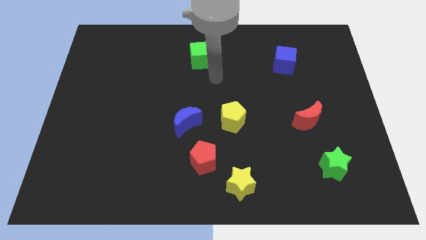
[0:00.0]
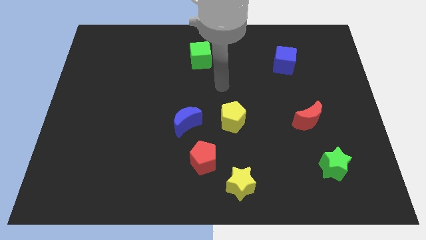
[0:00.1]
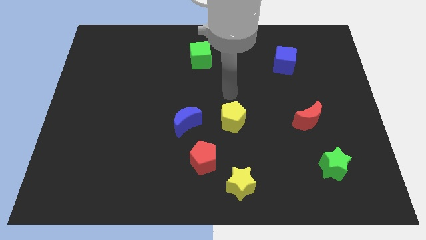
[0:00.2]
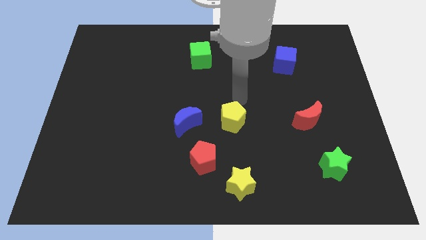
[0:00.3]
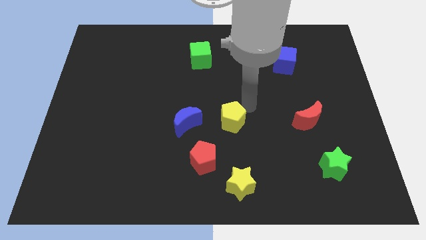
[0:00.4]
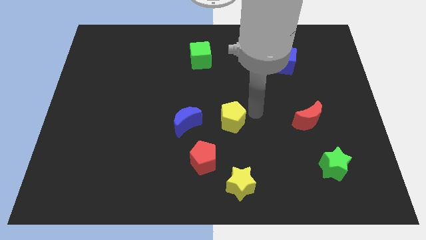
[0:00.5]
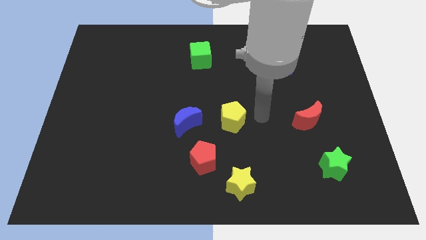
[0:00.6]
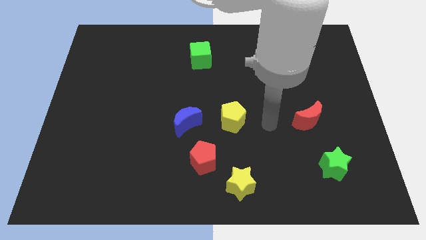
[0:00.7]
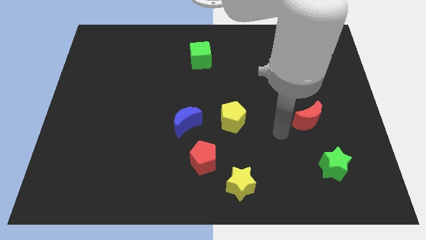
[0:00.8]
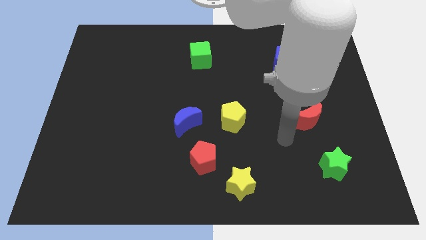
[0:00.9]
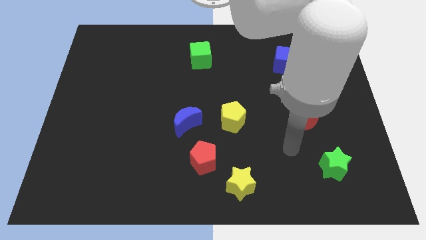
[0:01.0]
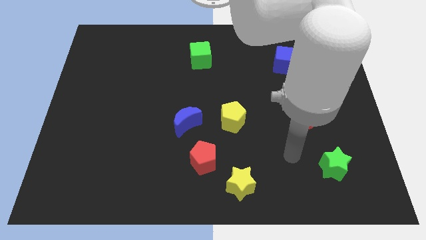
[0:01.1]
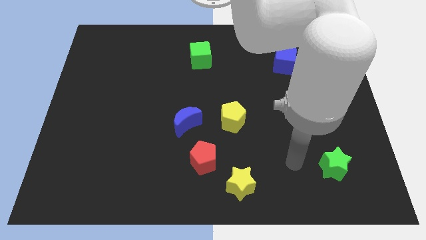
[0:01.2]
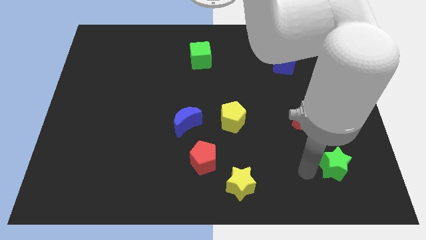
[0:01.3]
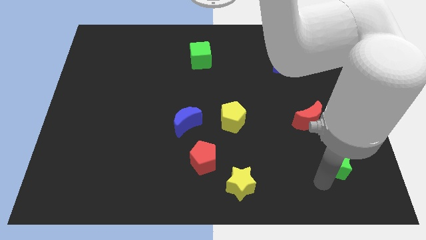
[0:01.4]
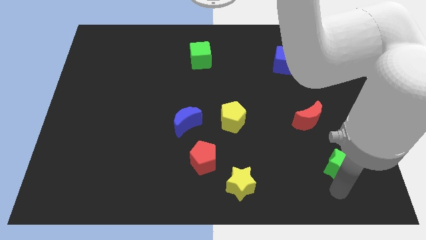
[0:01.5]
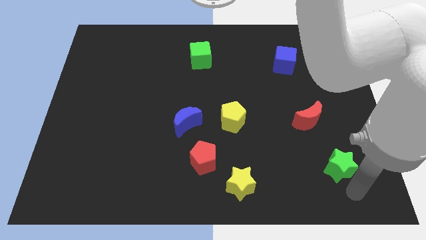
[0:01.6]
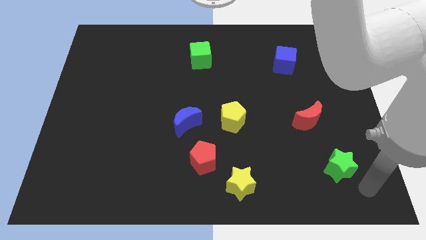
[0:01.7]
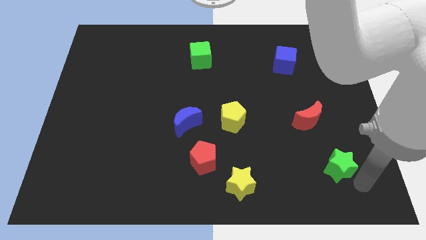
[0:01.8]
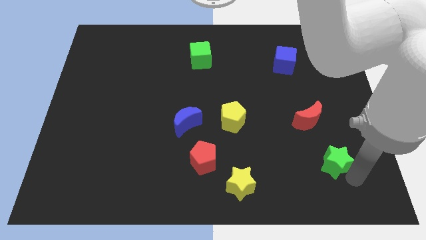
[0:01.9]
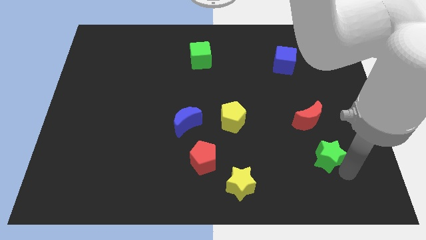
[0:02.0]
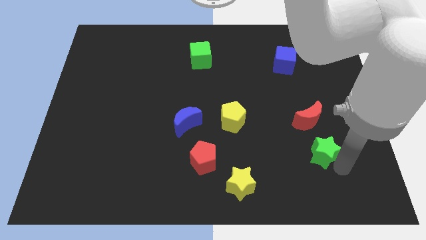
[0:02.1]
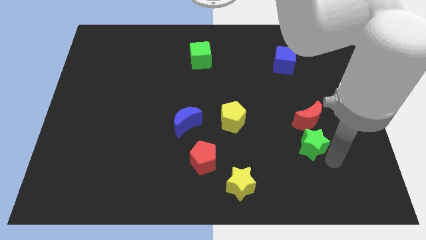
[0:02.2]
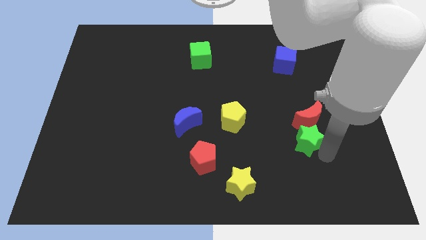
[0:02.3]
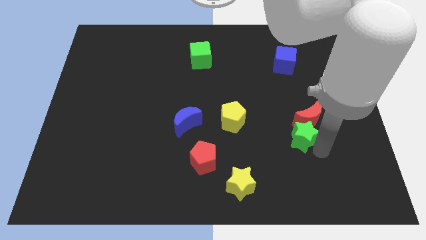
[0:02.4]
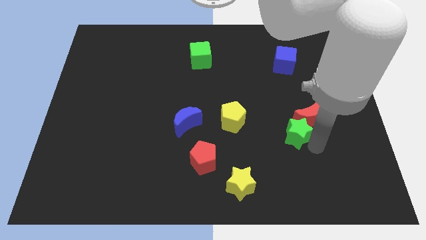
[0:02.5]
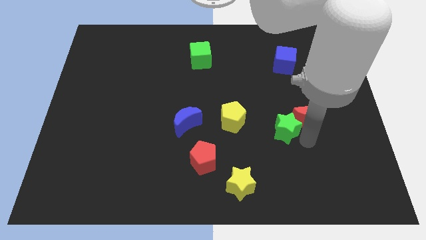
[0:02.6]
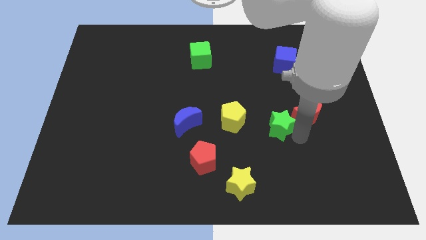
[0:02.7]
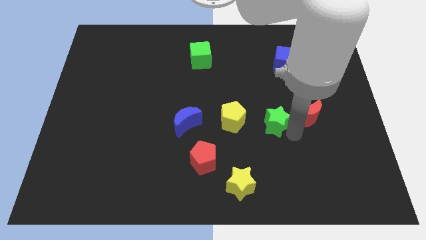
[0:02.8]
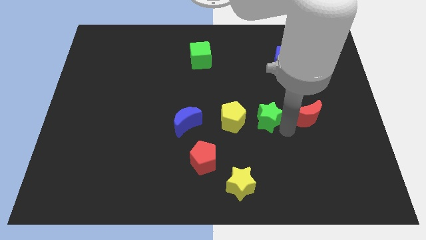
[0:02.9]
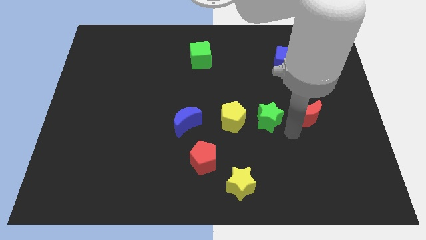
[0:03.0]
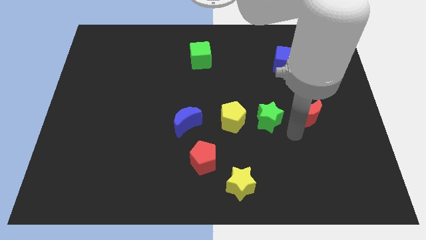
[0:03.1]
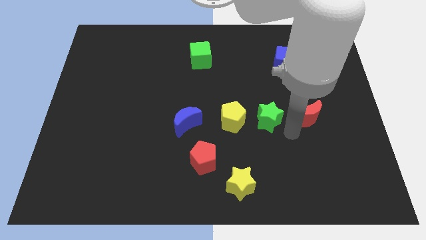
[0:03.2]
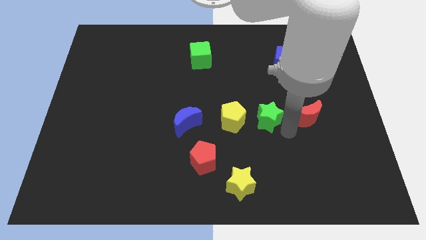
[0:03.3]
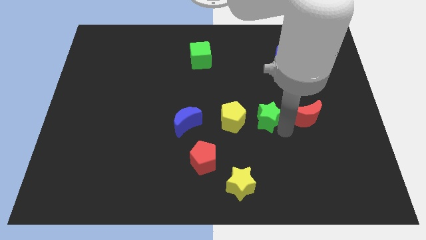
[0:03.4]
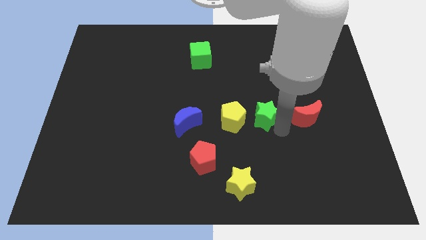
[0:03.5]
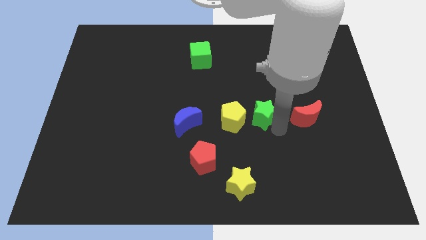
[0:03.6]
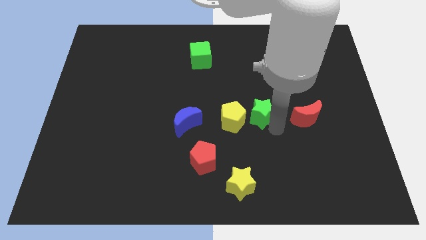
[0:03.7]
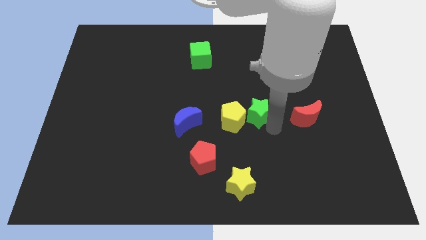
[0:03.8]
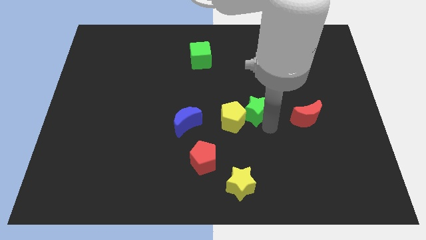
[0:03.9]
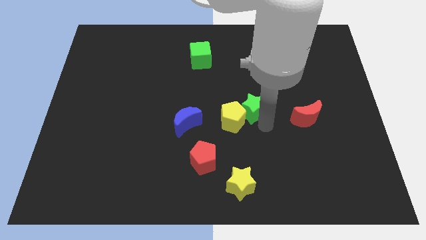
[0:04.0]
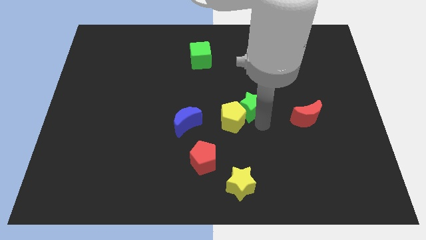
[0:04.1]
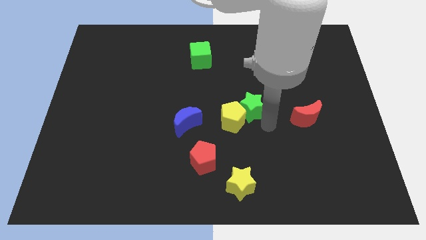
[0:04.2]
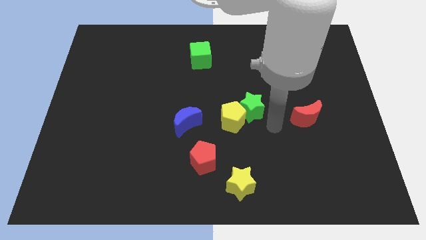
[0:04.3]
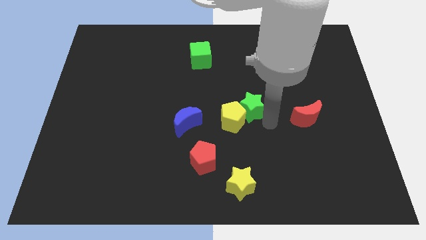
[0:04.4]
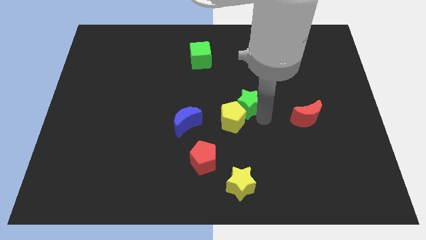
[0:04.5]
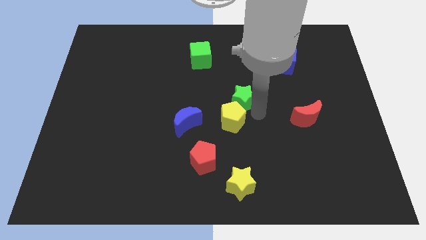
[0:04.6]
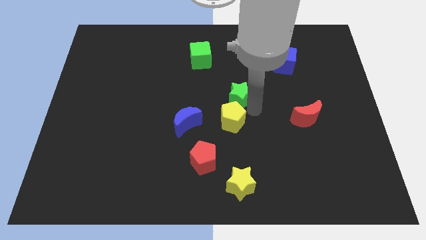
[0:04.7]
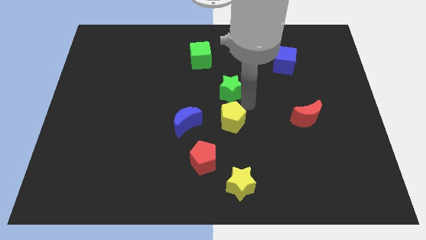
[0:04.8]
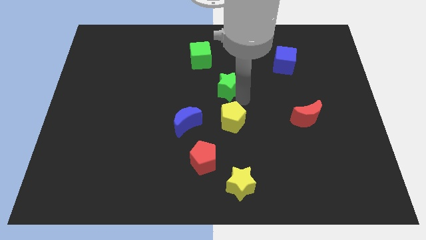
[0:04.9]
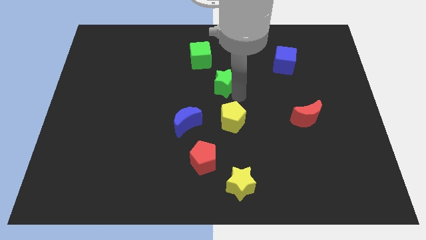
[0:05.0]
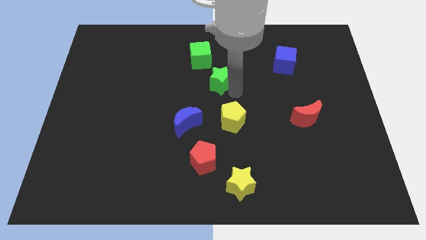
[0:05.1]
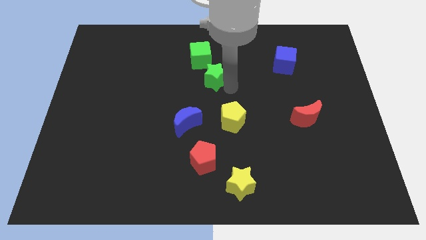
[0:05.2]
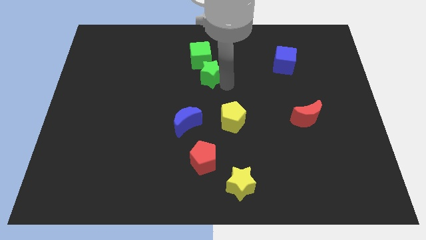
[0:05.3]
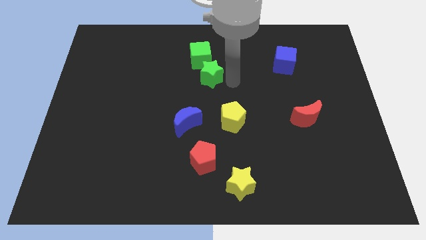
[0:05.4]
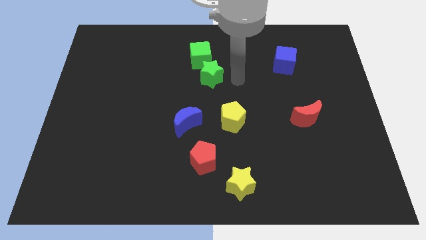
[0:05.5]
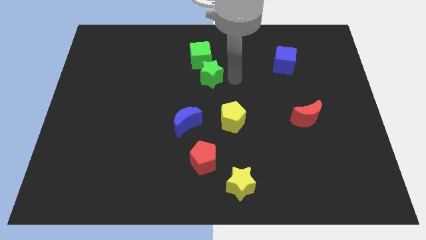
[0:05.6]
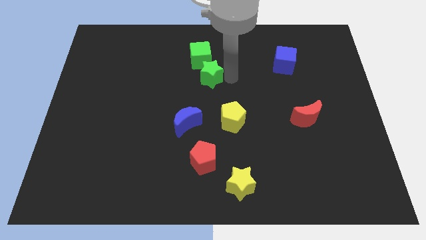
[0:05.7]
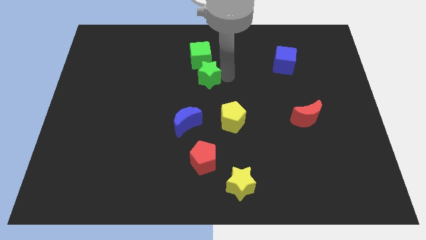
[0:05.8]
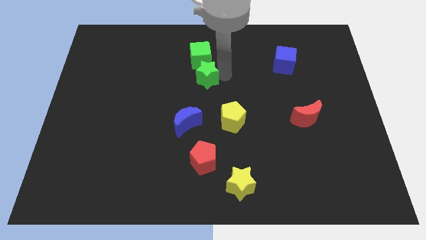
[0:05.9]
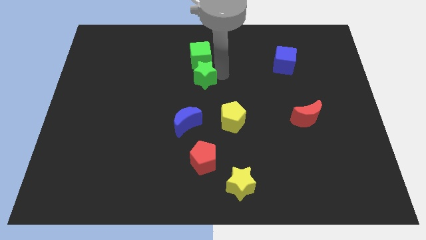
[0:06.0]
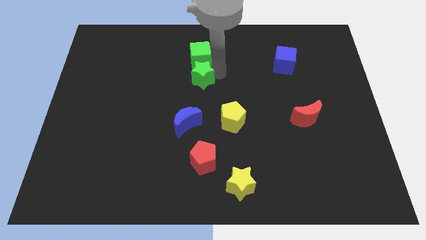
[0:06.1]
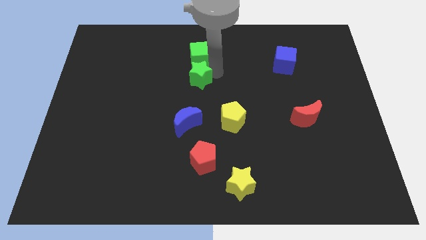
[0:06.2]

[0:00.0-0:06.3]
move the green star to the bottom left of the green cube
